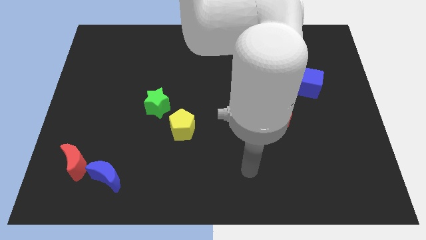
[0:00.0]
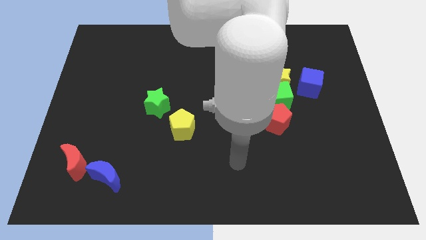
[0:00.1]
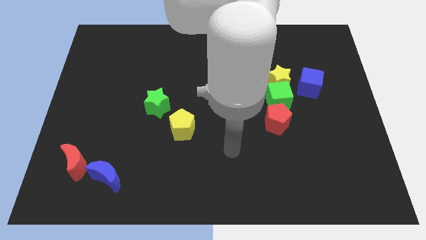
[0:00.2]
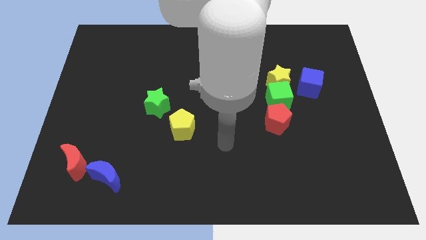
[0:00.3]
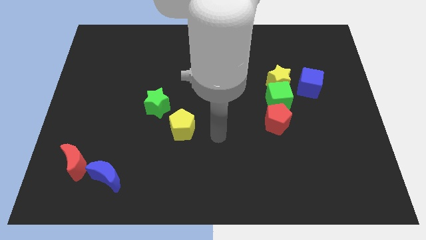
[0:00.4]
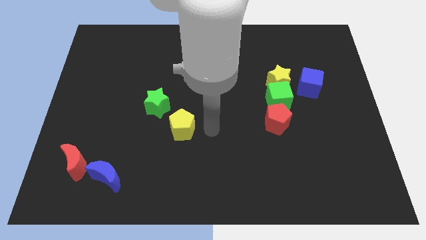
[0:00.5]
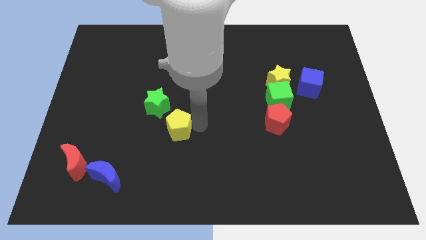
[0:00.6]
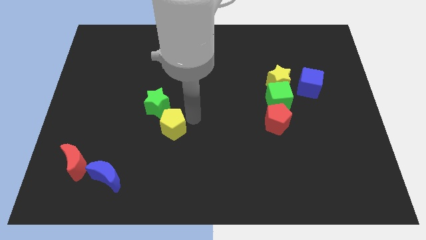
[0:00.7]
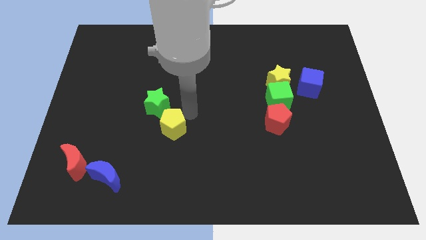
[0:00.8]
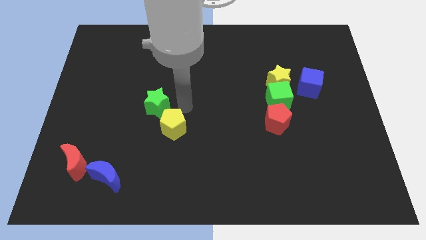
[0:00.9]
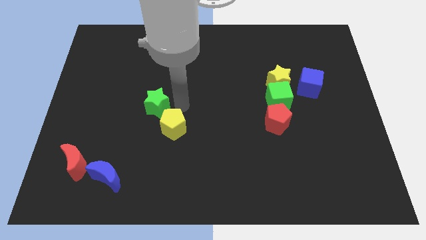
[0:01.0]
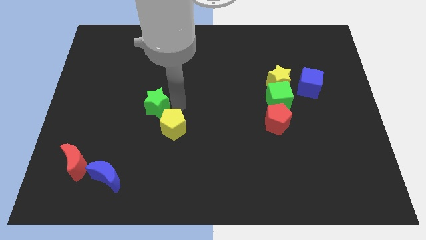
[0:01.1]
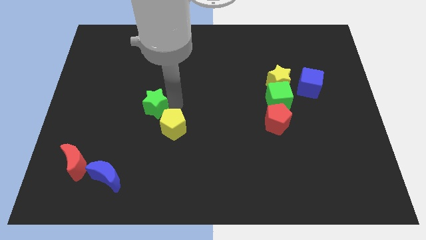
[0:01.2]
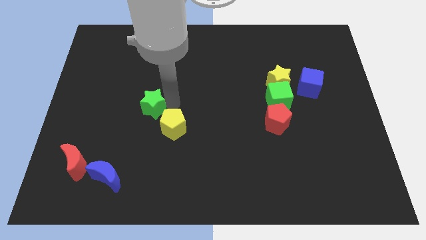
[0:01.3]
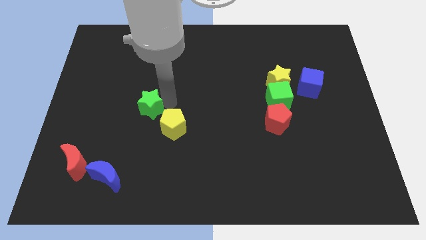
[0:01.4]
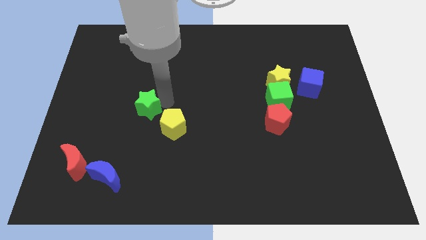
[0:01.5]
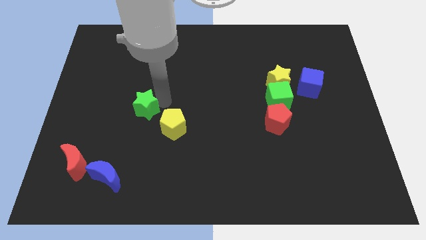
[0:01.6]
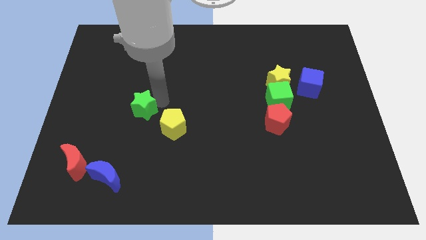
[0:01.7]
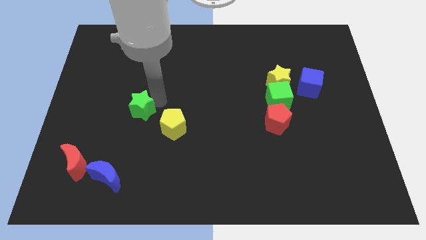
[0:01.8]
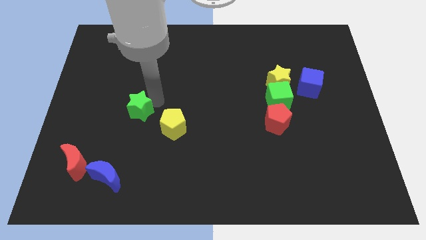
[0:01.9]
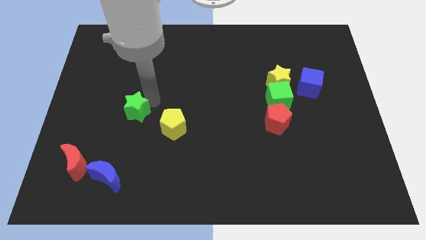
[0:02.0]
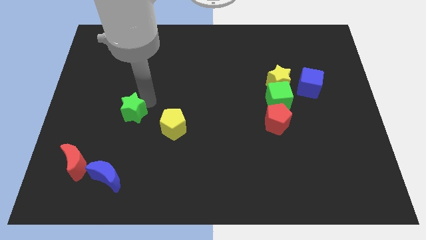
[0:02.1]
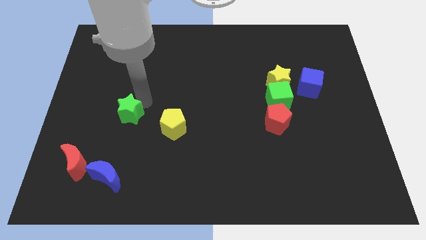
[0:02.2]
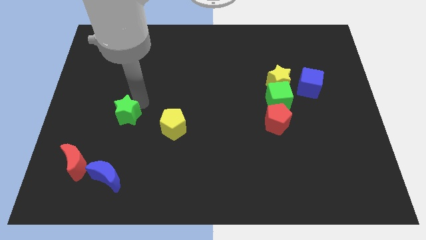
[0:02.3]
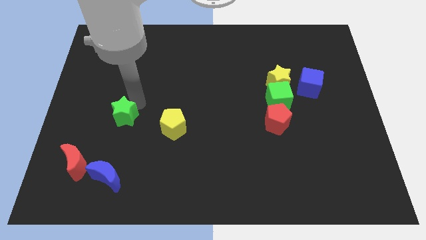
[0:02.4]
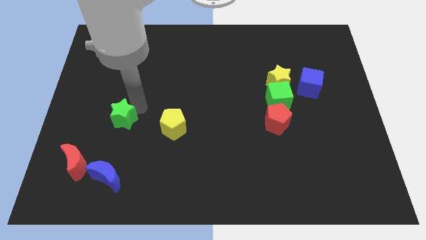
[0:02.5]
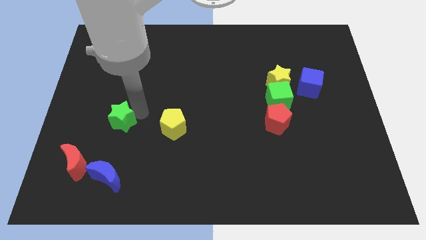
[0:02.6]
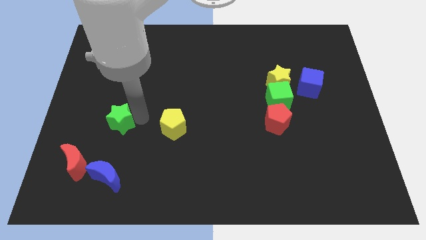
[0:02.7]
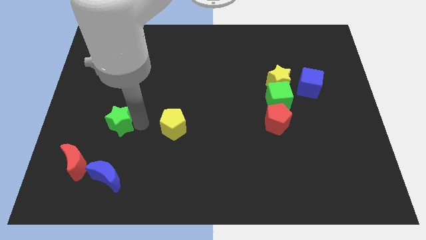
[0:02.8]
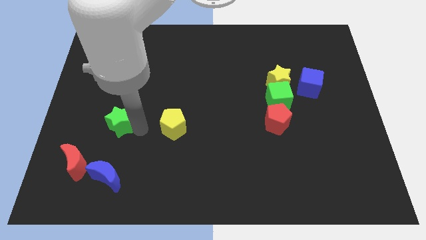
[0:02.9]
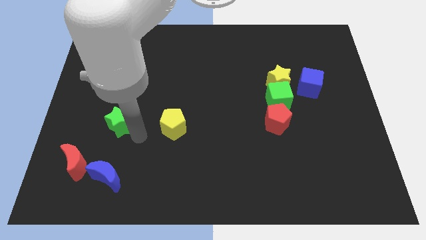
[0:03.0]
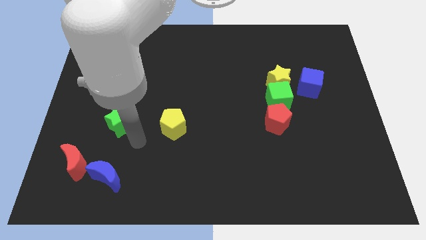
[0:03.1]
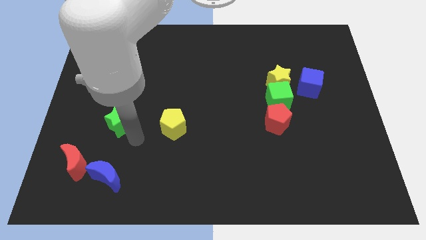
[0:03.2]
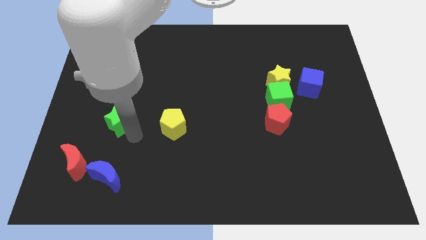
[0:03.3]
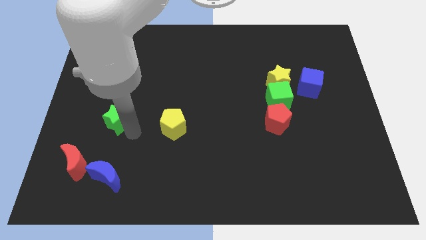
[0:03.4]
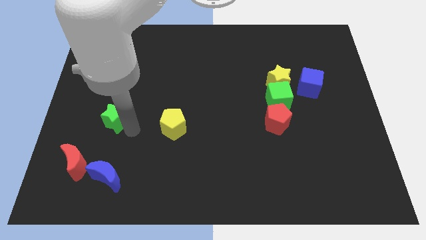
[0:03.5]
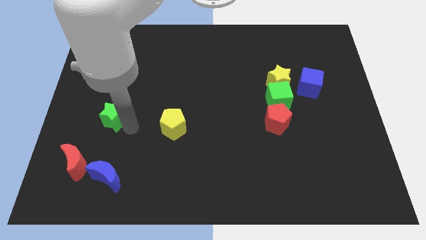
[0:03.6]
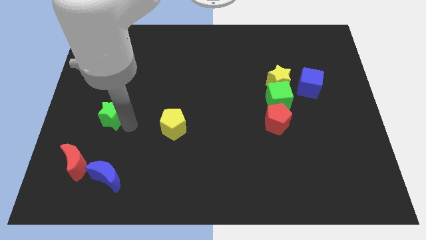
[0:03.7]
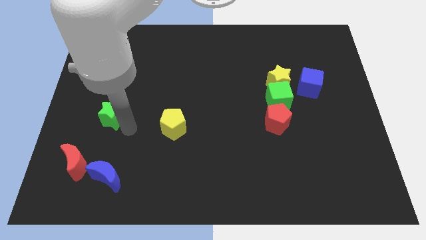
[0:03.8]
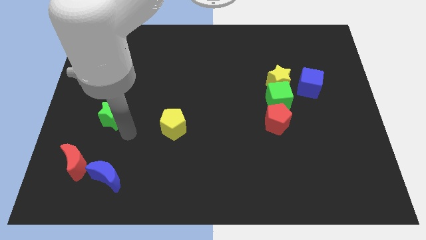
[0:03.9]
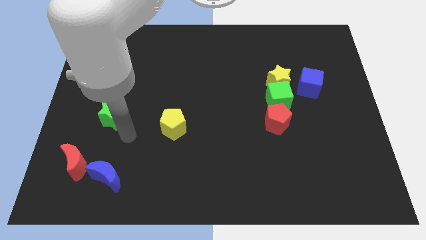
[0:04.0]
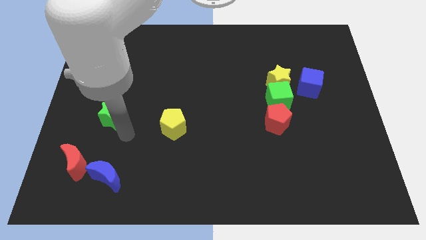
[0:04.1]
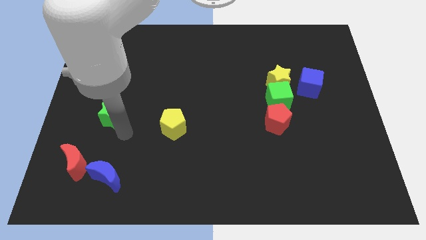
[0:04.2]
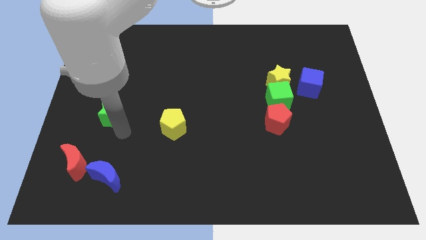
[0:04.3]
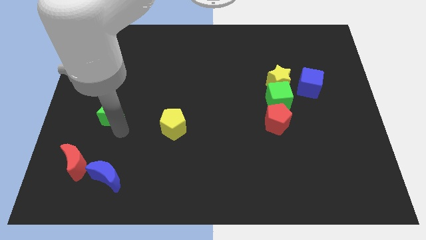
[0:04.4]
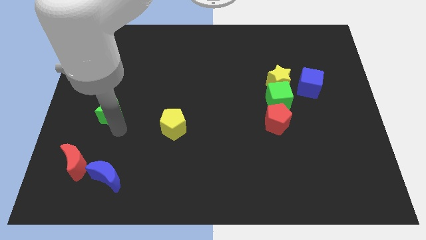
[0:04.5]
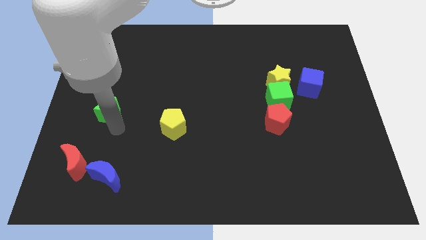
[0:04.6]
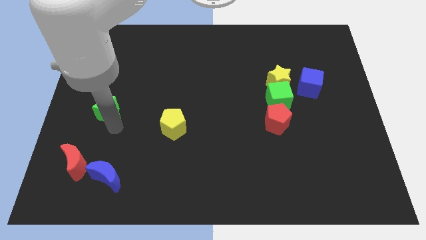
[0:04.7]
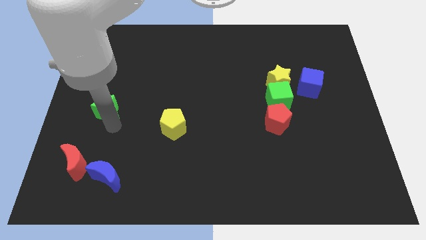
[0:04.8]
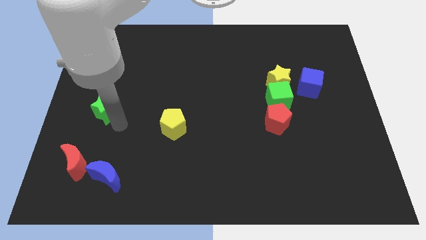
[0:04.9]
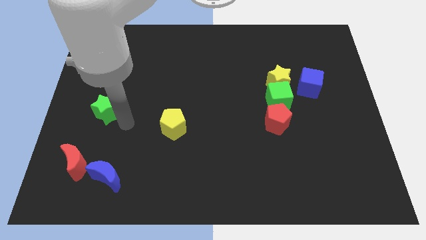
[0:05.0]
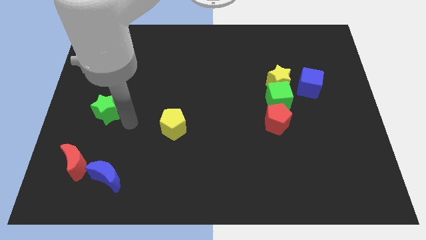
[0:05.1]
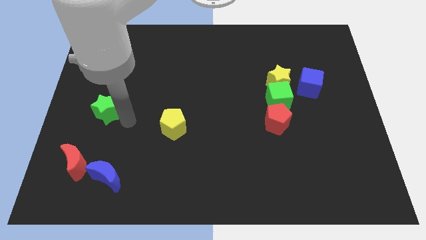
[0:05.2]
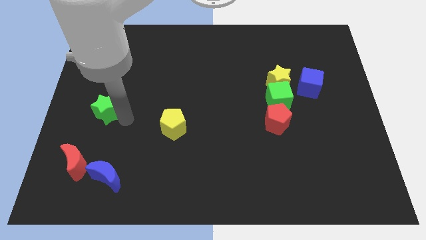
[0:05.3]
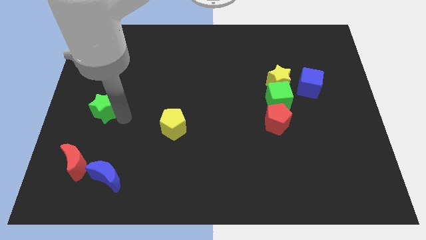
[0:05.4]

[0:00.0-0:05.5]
slide the green star to the center left

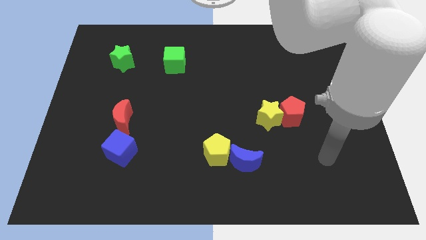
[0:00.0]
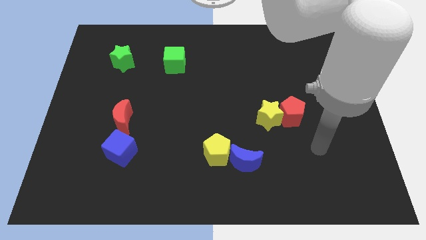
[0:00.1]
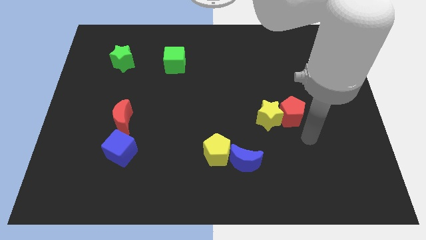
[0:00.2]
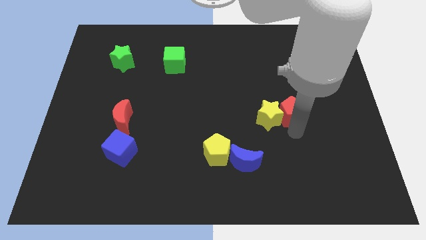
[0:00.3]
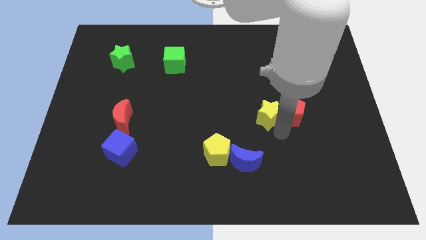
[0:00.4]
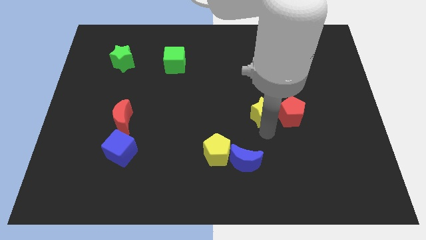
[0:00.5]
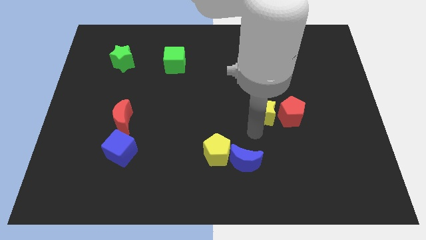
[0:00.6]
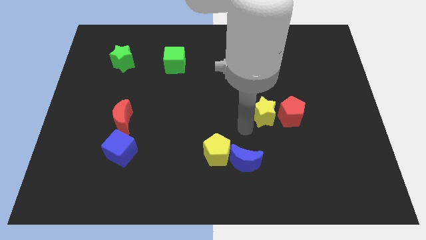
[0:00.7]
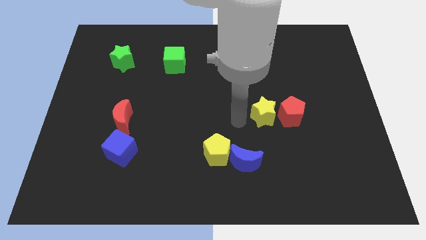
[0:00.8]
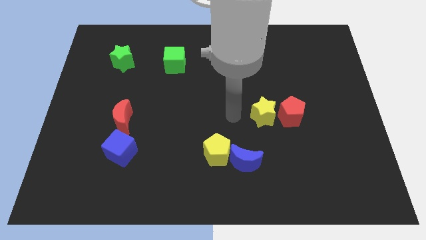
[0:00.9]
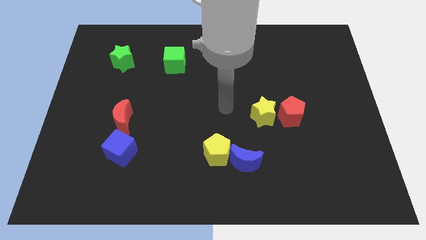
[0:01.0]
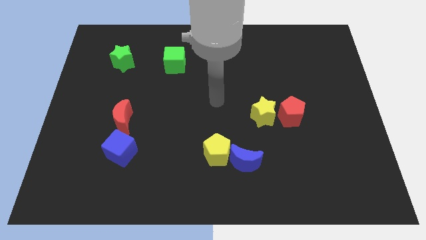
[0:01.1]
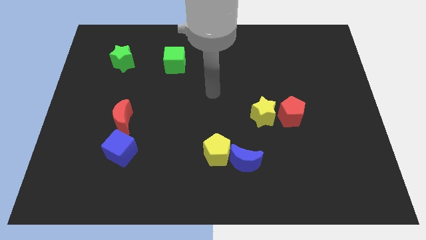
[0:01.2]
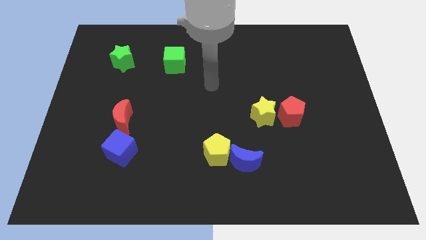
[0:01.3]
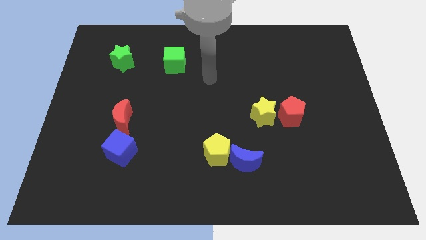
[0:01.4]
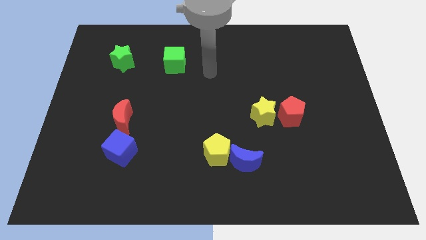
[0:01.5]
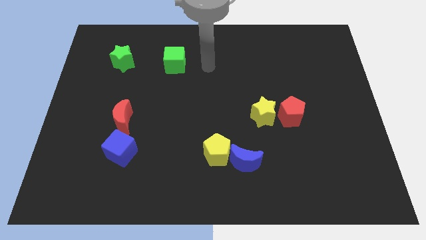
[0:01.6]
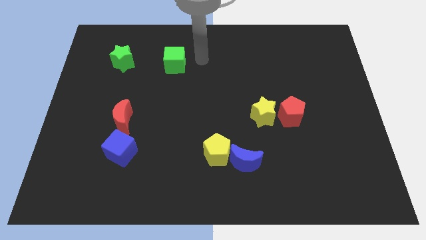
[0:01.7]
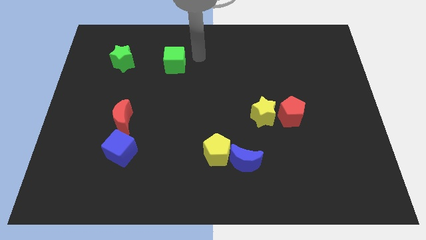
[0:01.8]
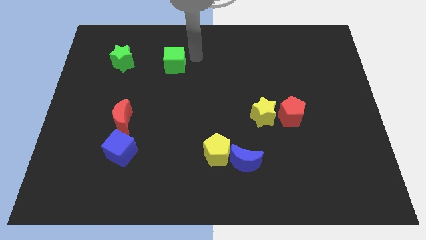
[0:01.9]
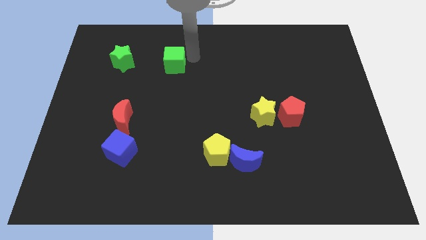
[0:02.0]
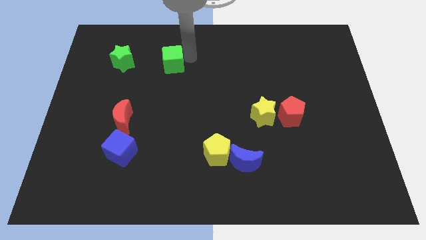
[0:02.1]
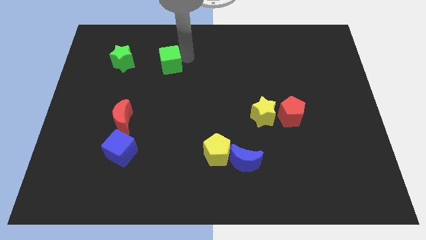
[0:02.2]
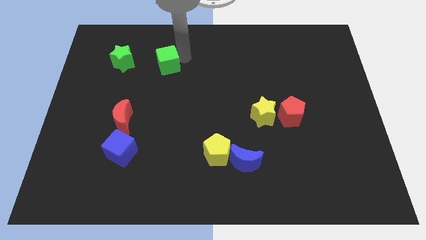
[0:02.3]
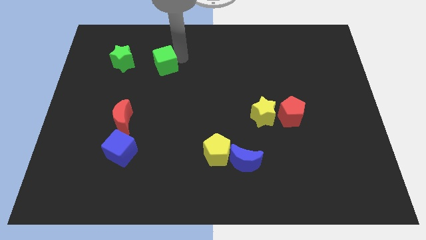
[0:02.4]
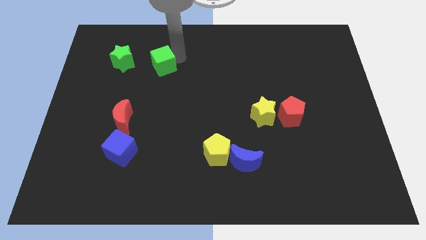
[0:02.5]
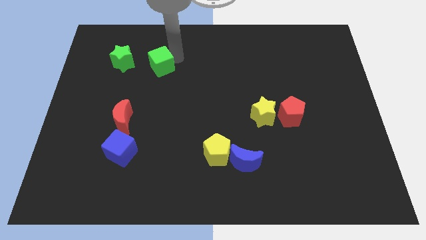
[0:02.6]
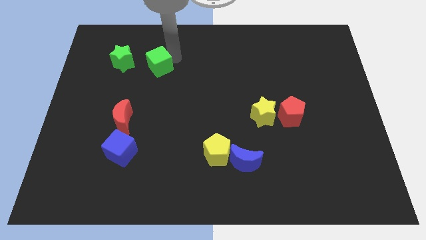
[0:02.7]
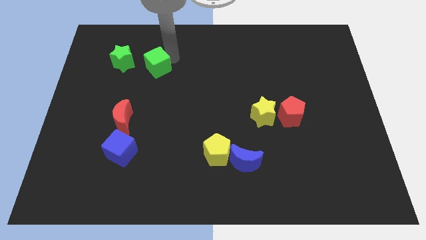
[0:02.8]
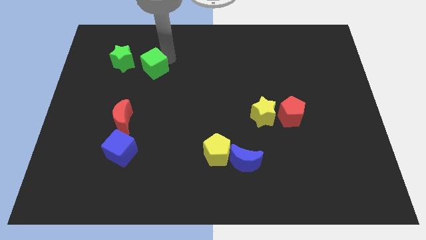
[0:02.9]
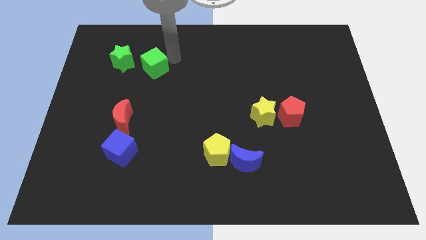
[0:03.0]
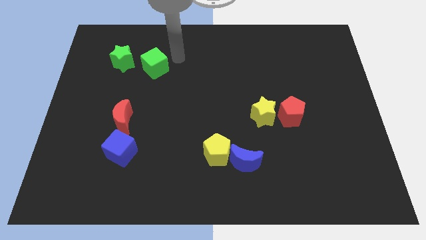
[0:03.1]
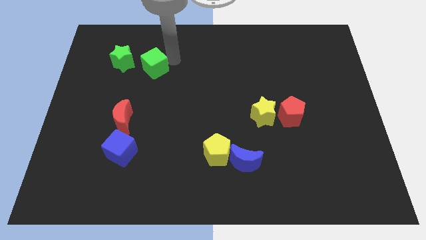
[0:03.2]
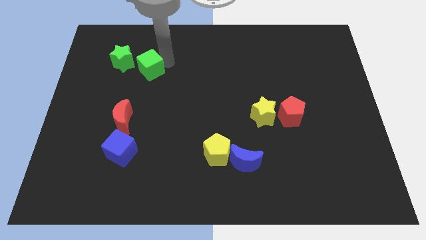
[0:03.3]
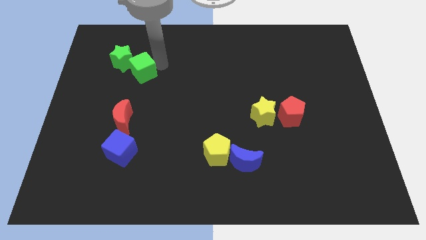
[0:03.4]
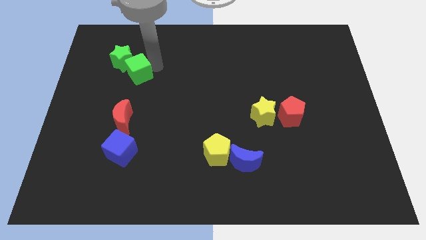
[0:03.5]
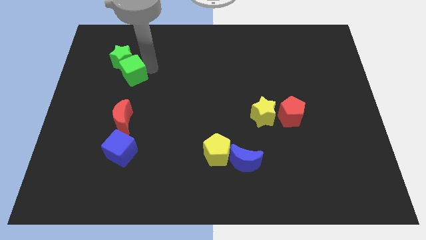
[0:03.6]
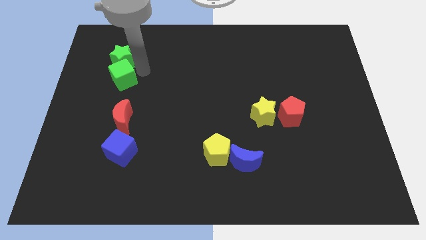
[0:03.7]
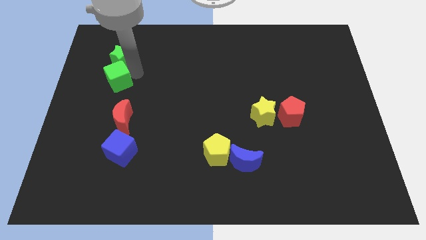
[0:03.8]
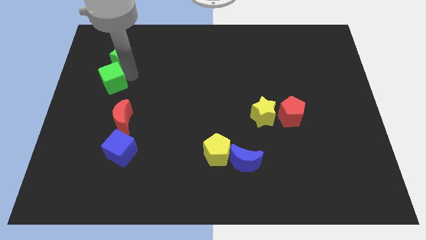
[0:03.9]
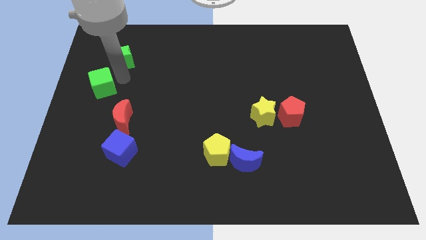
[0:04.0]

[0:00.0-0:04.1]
put the green cube to the center left
